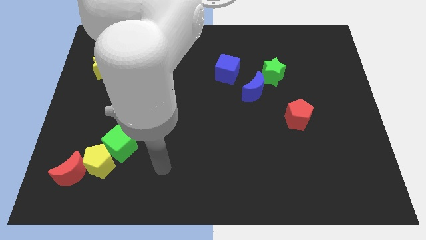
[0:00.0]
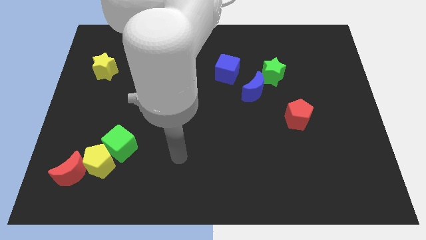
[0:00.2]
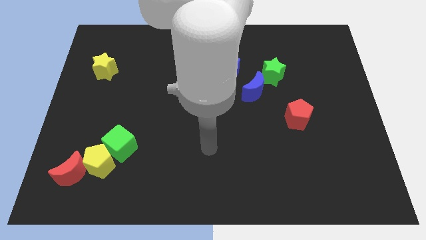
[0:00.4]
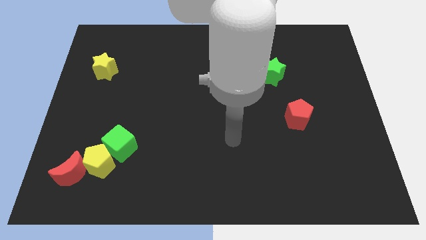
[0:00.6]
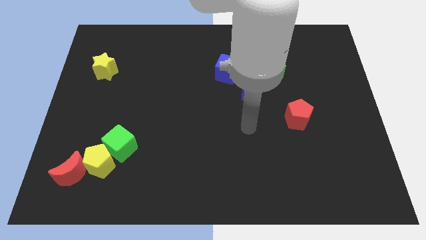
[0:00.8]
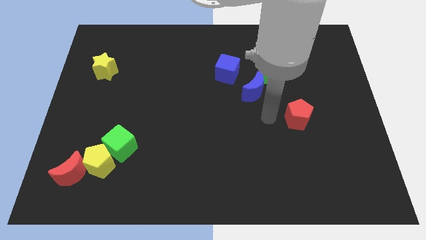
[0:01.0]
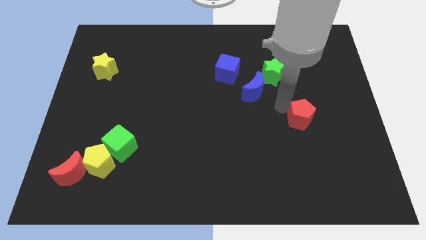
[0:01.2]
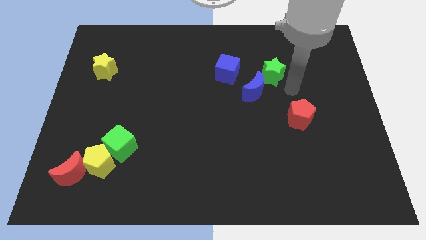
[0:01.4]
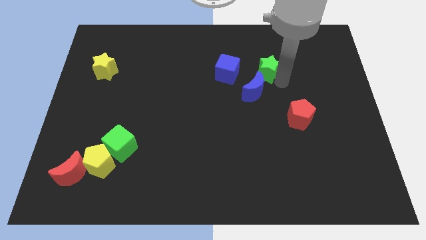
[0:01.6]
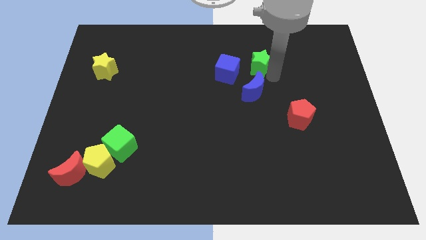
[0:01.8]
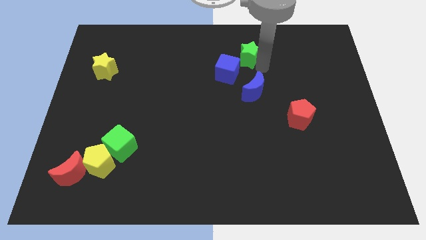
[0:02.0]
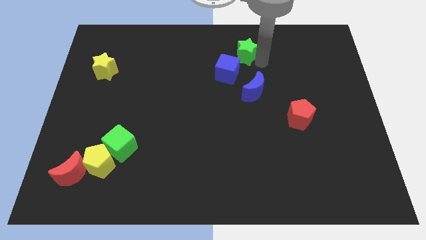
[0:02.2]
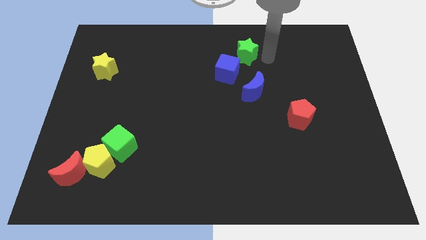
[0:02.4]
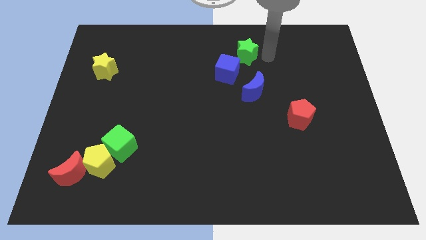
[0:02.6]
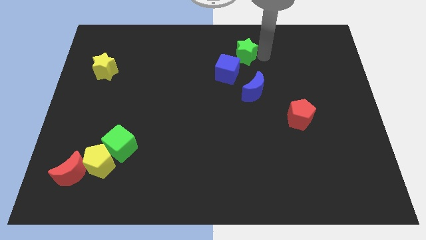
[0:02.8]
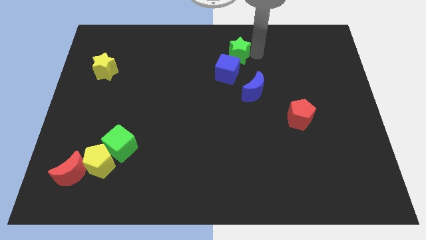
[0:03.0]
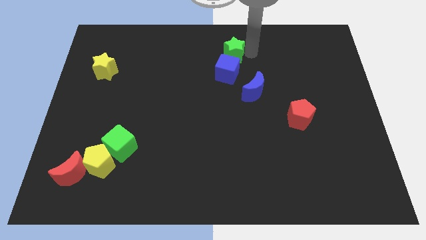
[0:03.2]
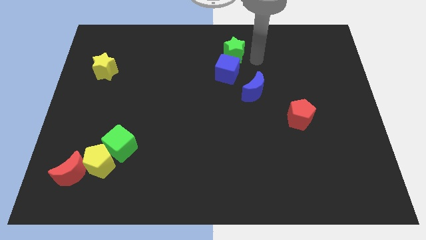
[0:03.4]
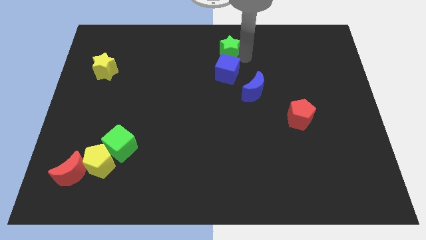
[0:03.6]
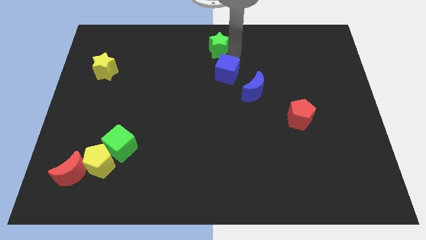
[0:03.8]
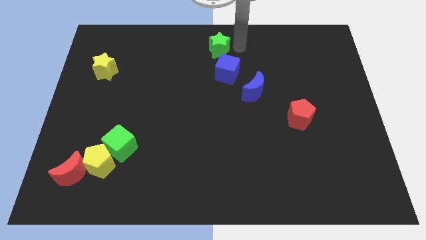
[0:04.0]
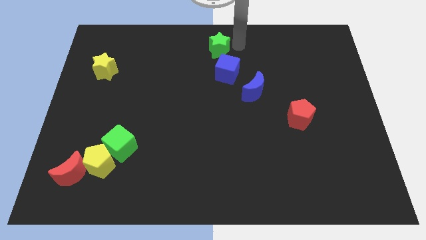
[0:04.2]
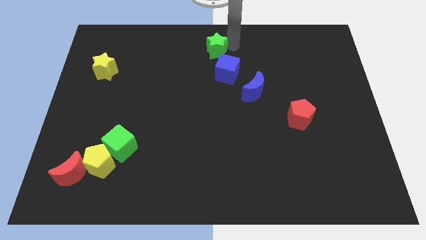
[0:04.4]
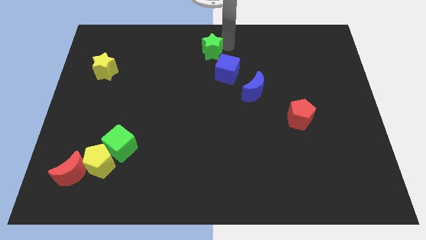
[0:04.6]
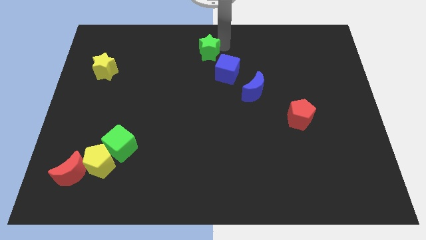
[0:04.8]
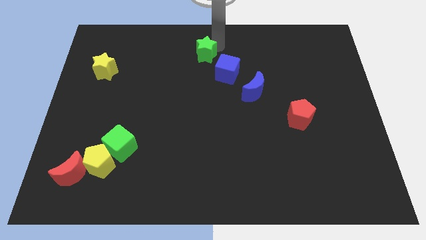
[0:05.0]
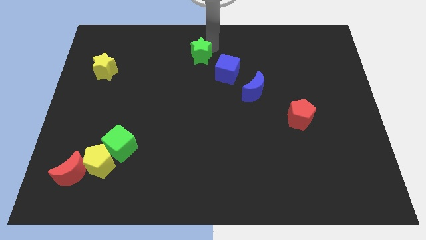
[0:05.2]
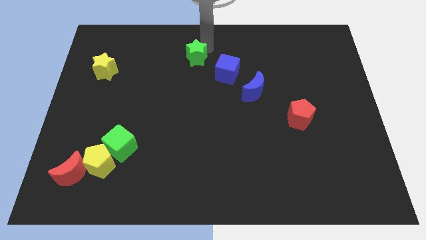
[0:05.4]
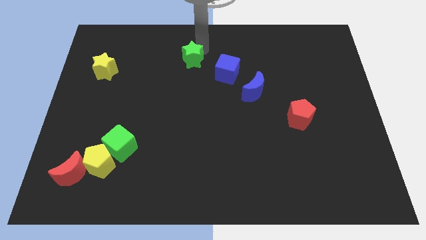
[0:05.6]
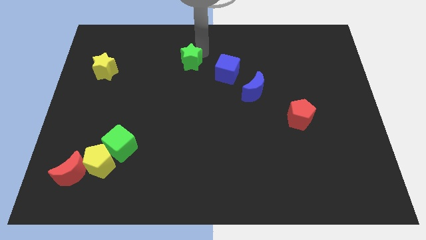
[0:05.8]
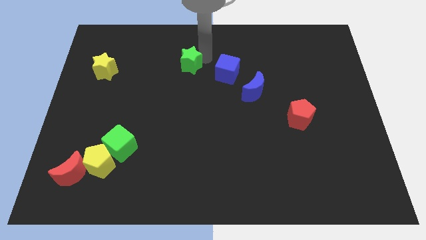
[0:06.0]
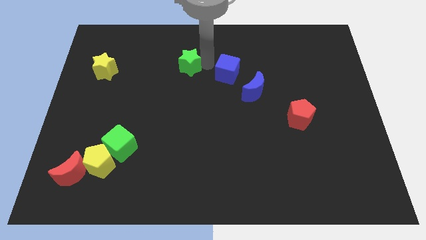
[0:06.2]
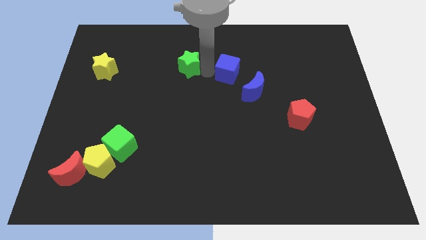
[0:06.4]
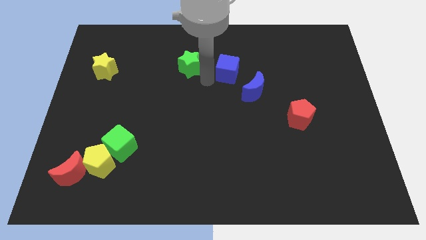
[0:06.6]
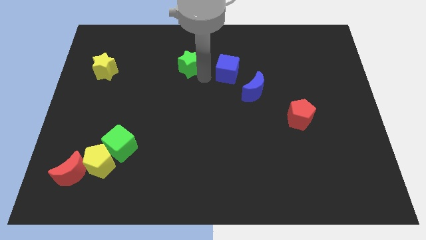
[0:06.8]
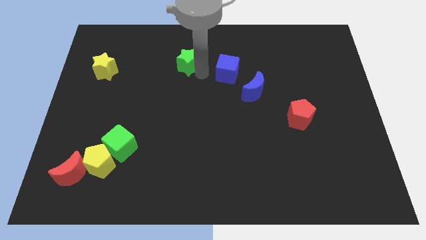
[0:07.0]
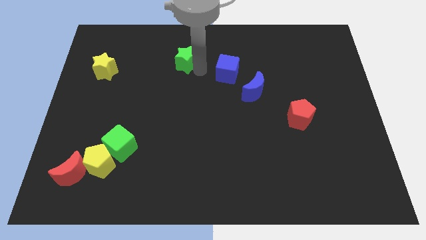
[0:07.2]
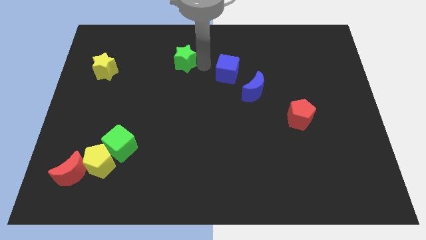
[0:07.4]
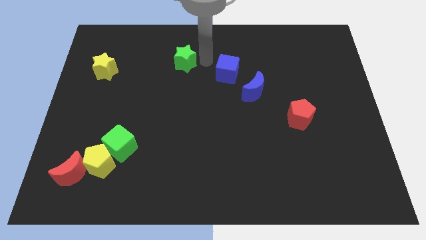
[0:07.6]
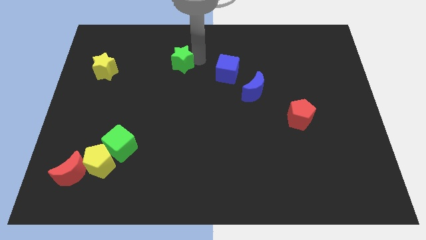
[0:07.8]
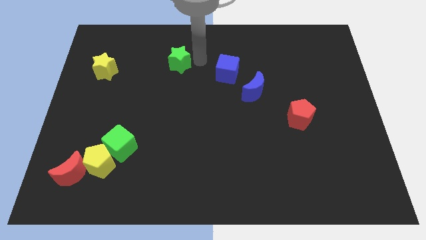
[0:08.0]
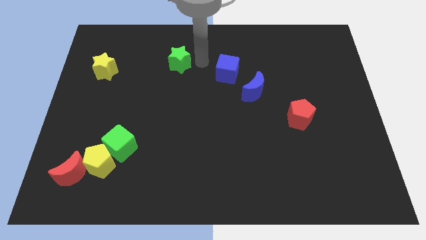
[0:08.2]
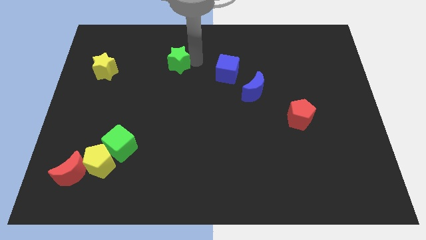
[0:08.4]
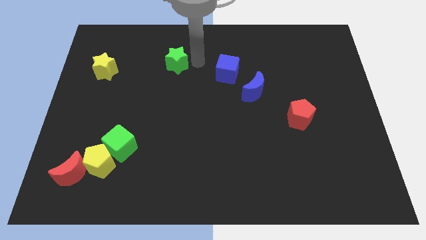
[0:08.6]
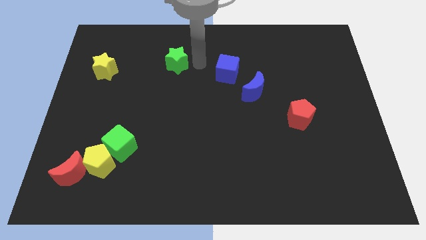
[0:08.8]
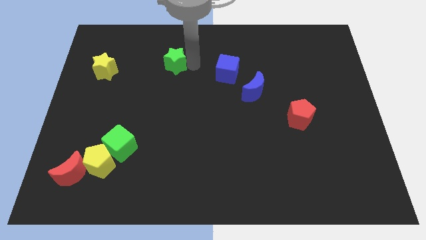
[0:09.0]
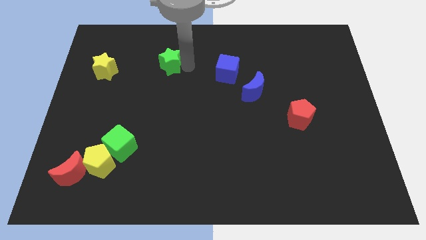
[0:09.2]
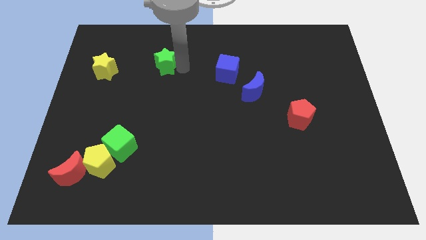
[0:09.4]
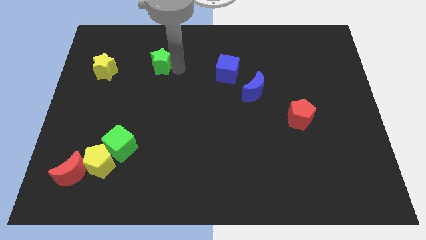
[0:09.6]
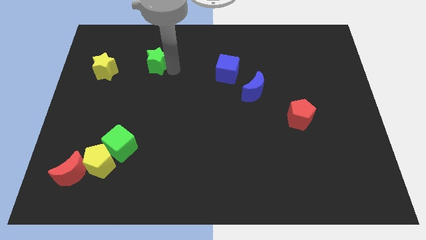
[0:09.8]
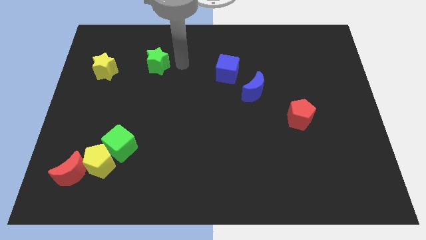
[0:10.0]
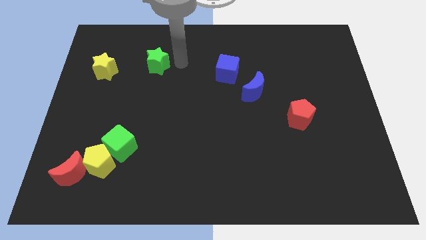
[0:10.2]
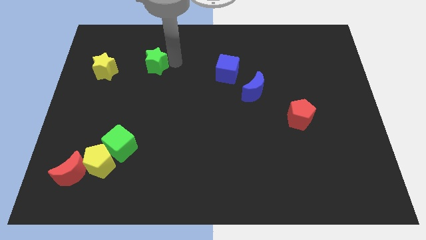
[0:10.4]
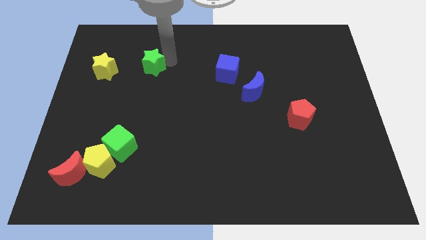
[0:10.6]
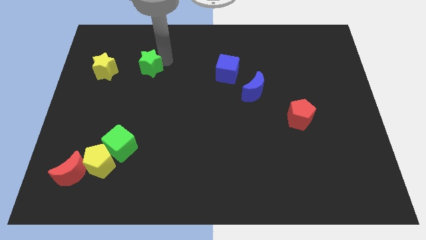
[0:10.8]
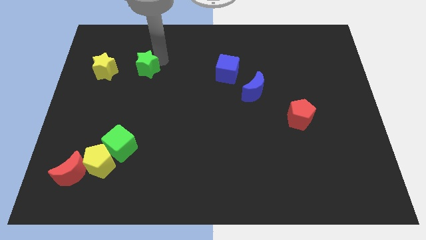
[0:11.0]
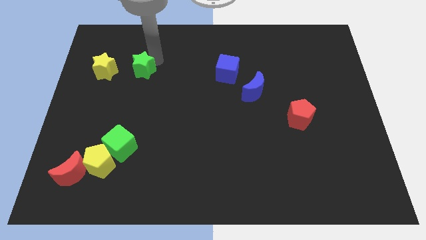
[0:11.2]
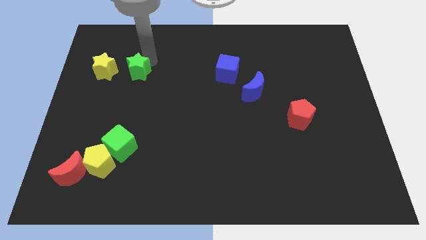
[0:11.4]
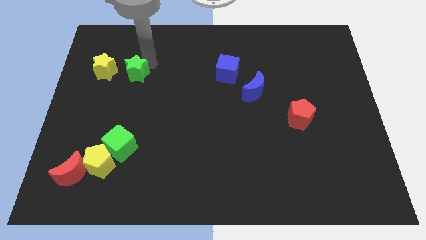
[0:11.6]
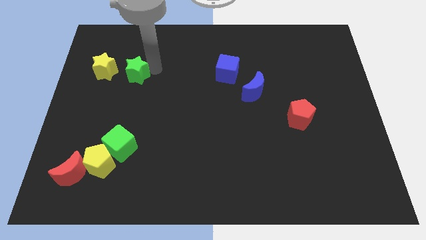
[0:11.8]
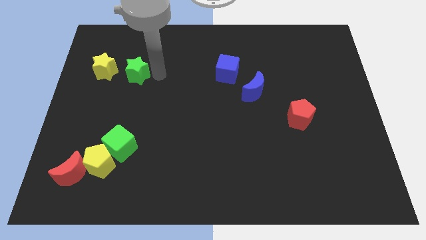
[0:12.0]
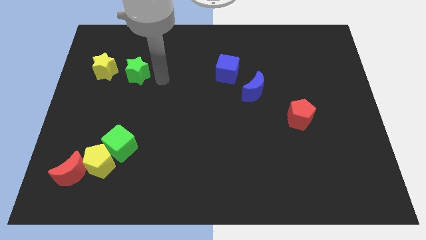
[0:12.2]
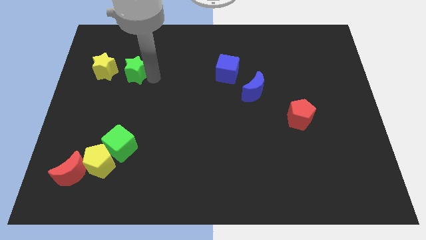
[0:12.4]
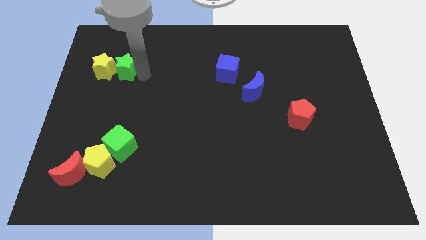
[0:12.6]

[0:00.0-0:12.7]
put the green star towards the yellow star
